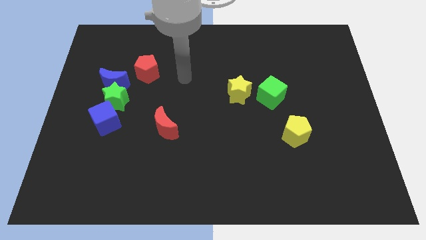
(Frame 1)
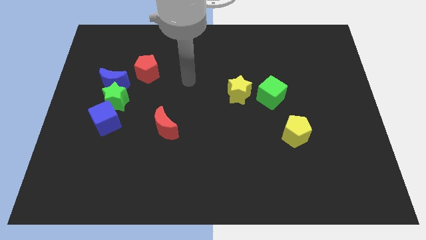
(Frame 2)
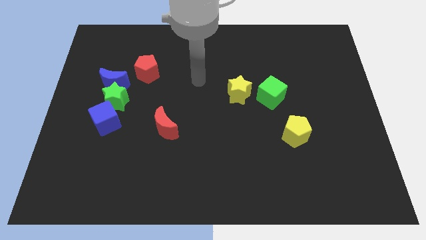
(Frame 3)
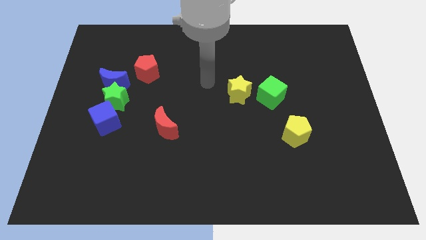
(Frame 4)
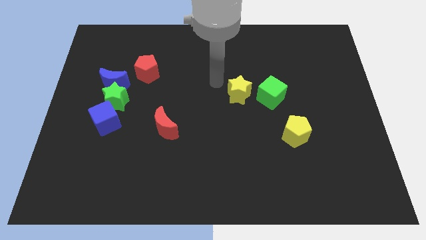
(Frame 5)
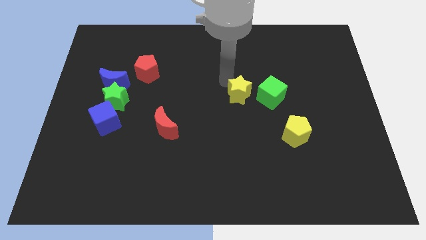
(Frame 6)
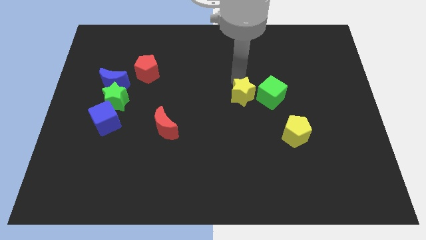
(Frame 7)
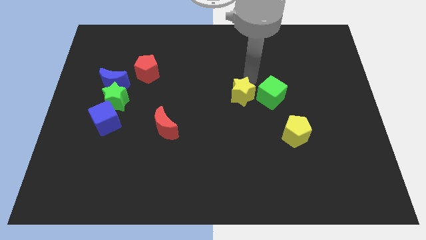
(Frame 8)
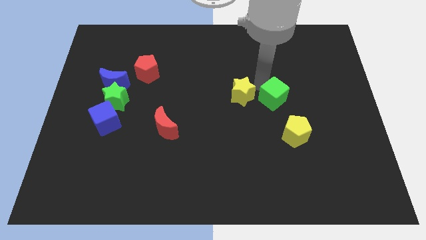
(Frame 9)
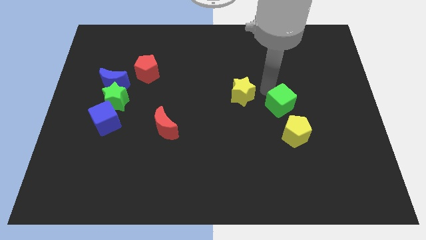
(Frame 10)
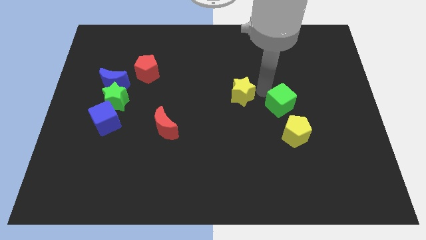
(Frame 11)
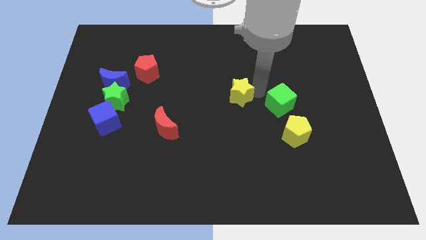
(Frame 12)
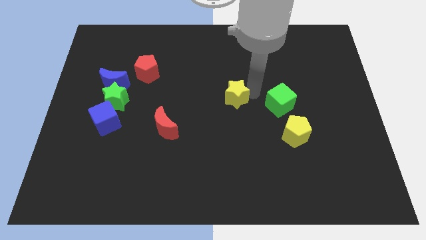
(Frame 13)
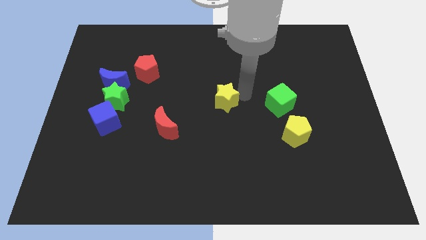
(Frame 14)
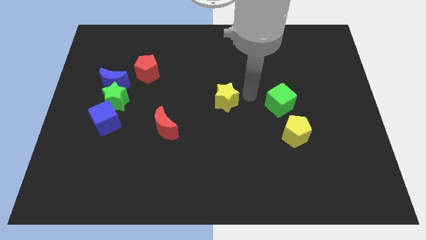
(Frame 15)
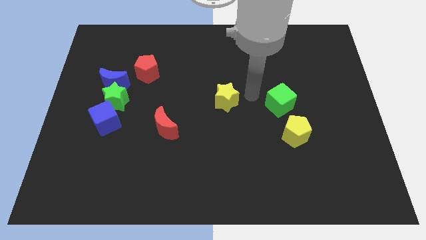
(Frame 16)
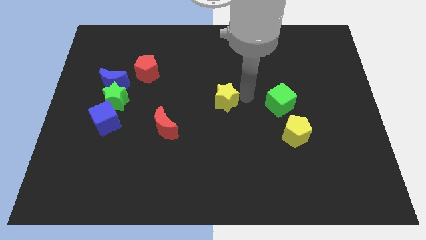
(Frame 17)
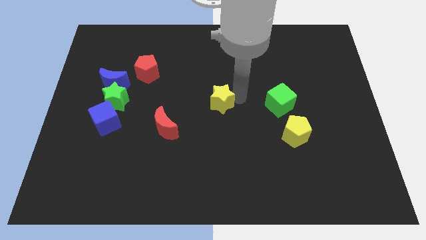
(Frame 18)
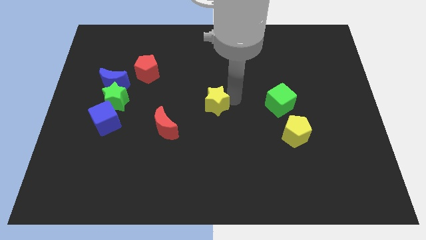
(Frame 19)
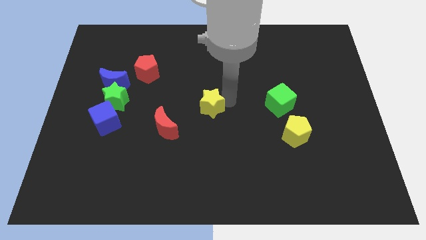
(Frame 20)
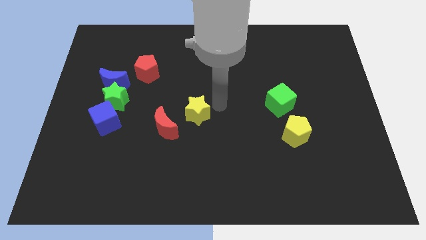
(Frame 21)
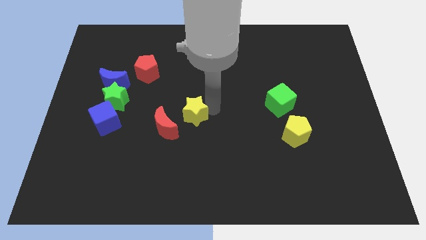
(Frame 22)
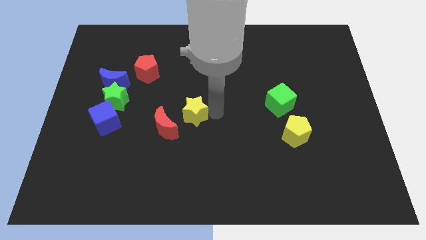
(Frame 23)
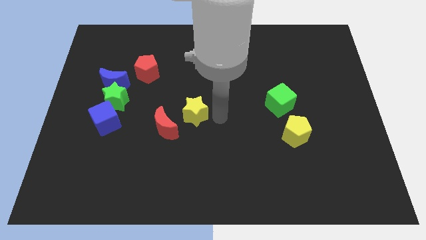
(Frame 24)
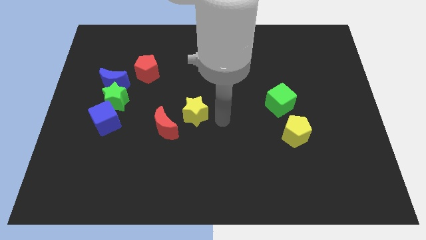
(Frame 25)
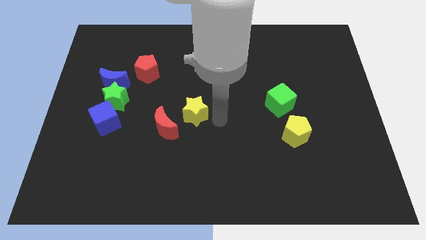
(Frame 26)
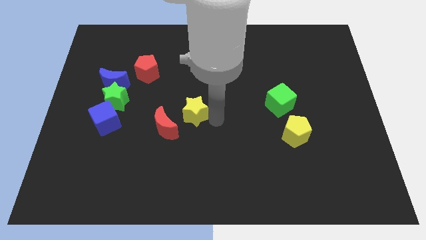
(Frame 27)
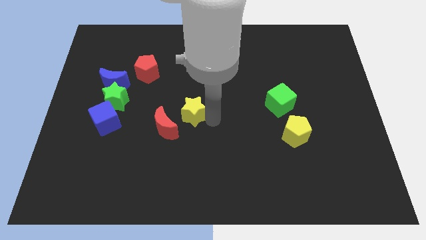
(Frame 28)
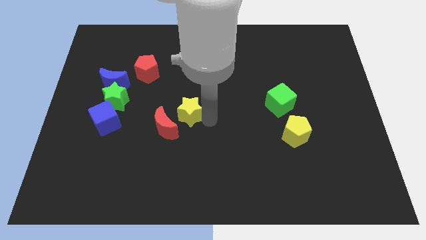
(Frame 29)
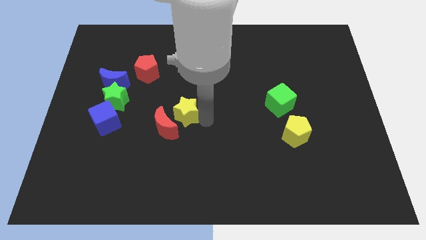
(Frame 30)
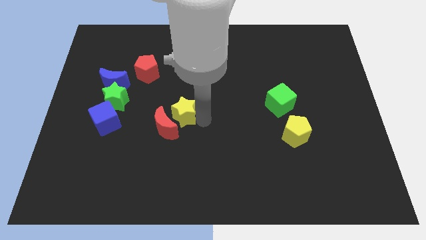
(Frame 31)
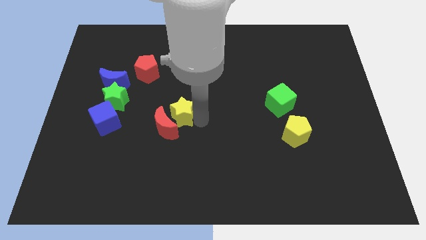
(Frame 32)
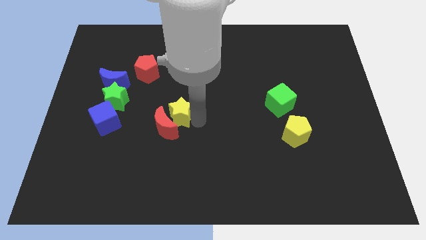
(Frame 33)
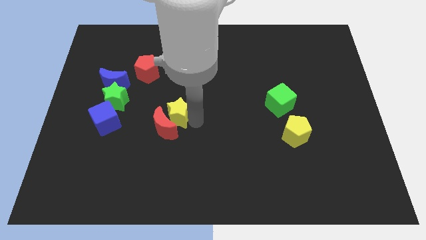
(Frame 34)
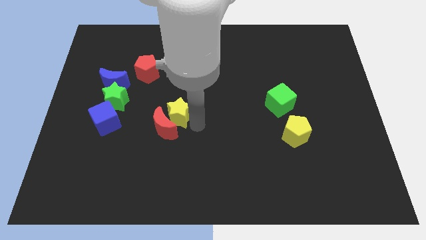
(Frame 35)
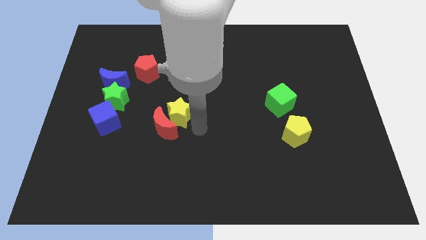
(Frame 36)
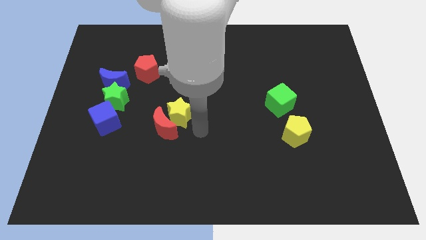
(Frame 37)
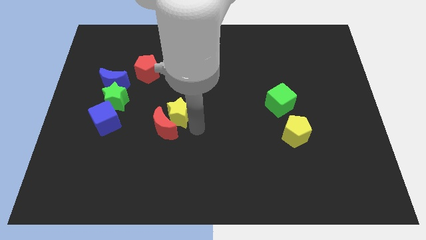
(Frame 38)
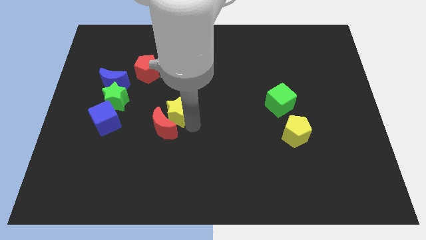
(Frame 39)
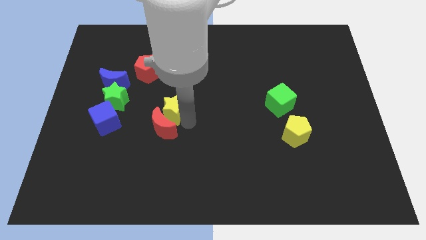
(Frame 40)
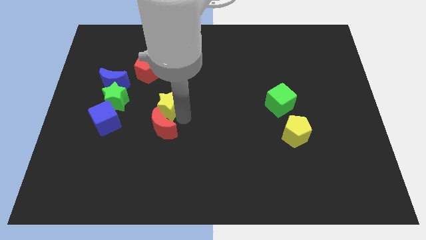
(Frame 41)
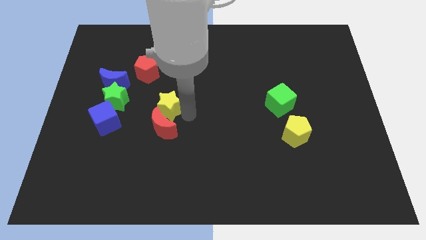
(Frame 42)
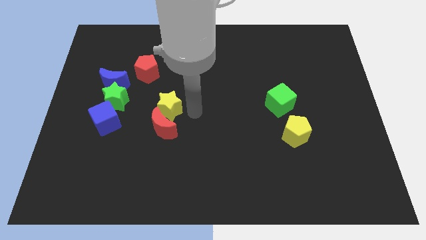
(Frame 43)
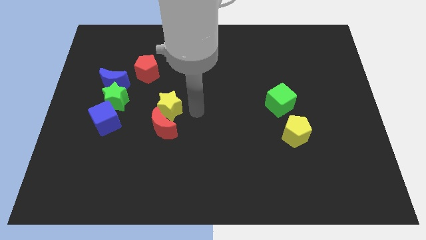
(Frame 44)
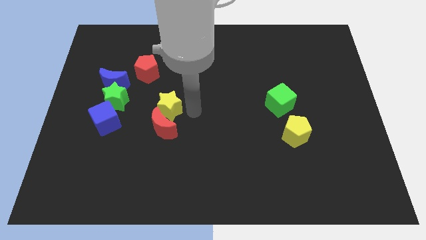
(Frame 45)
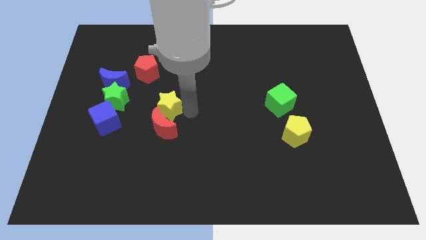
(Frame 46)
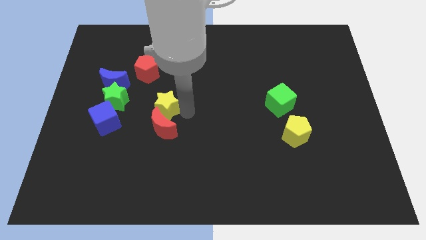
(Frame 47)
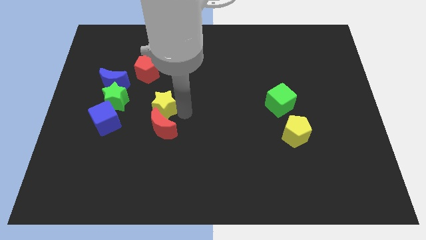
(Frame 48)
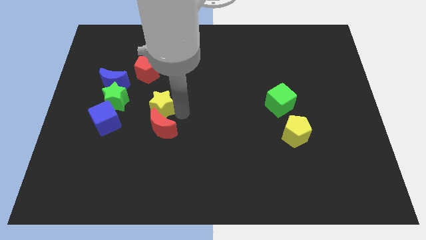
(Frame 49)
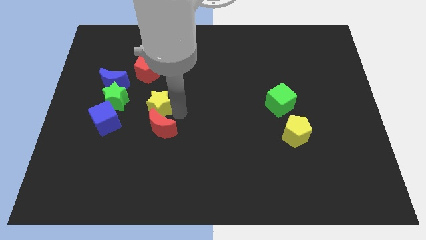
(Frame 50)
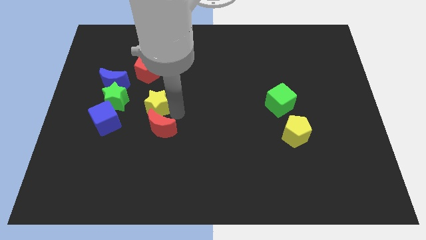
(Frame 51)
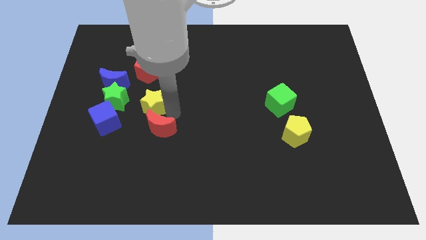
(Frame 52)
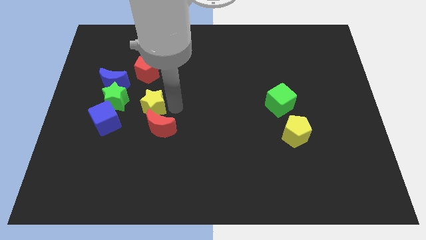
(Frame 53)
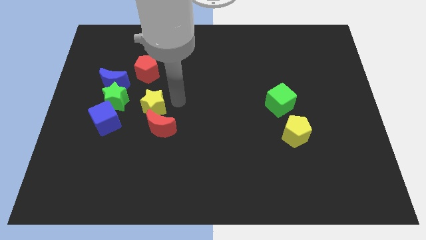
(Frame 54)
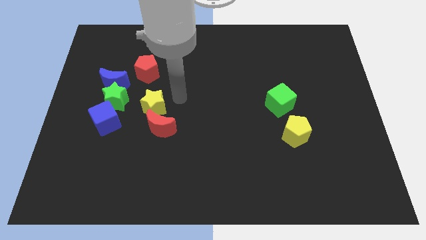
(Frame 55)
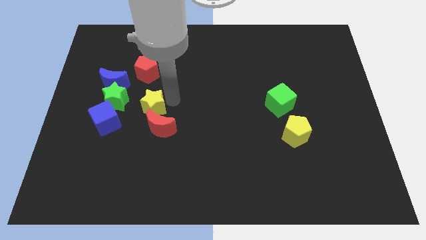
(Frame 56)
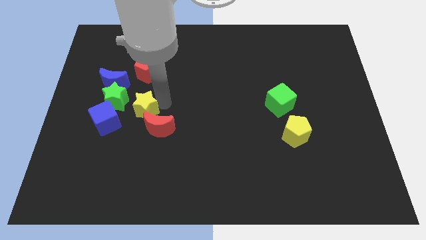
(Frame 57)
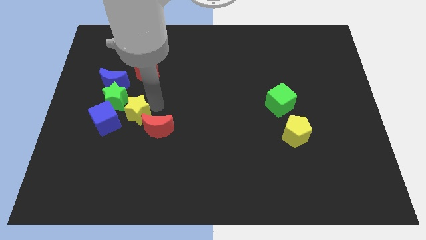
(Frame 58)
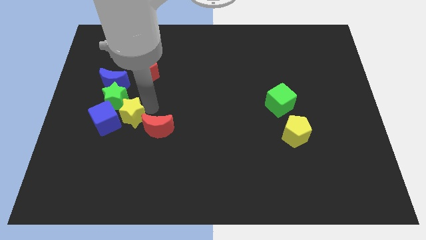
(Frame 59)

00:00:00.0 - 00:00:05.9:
slide the yellow star to the blue cube

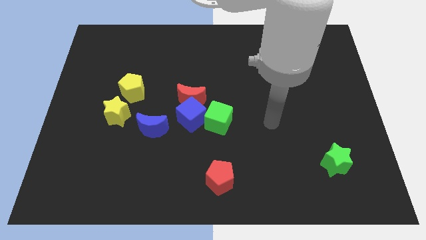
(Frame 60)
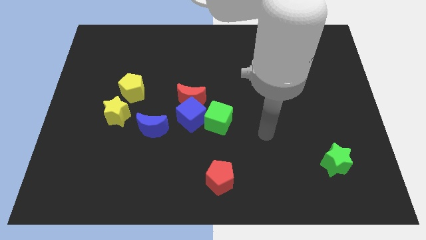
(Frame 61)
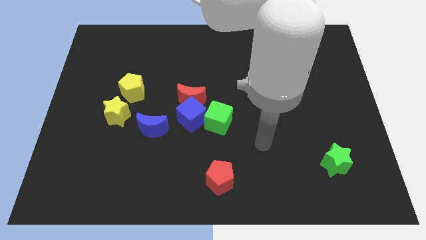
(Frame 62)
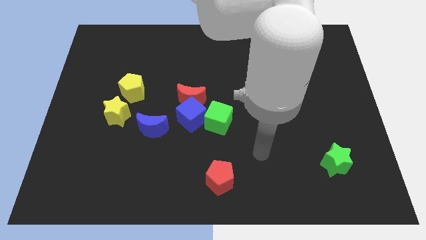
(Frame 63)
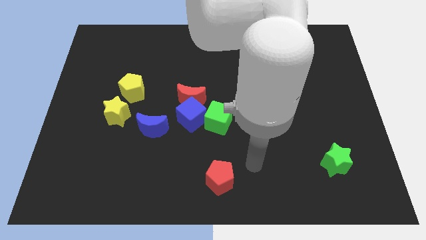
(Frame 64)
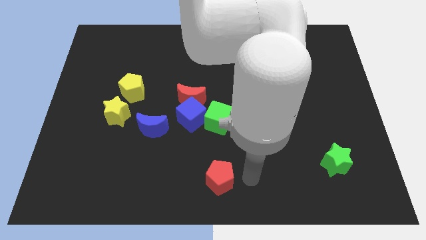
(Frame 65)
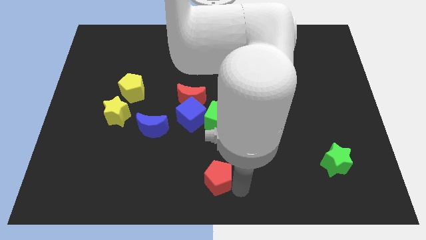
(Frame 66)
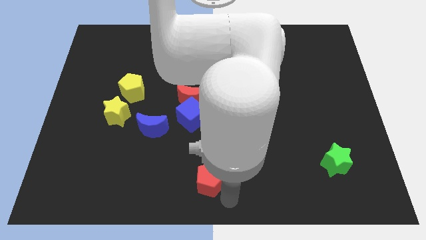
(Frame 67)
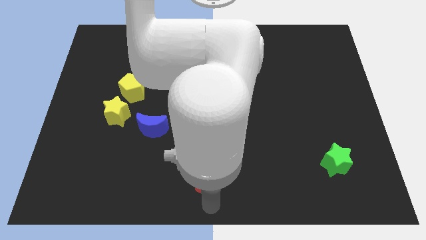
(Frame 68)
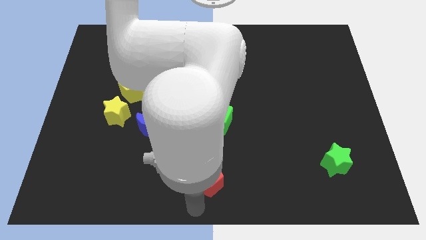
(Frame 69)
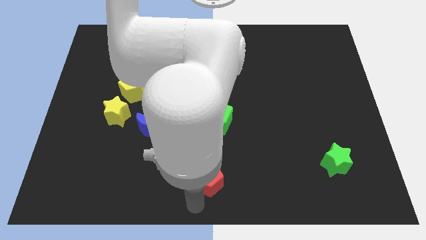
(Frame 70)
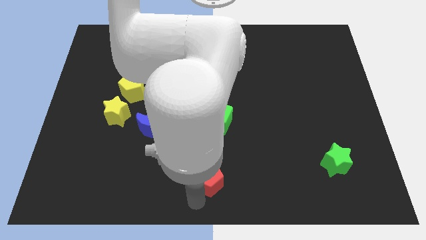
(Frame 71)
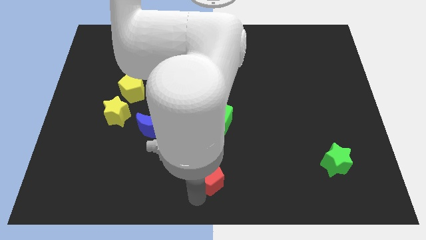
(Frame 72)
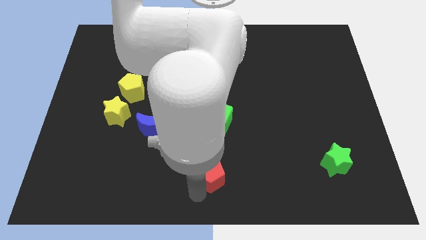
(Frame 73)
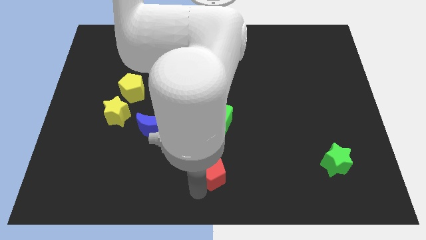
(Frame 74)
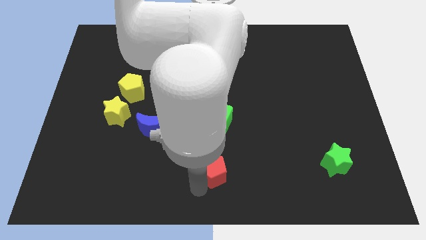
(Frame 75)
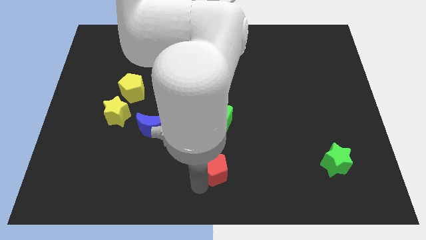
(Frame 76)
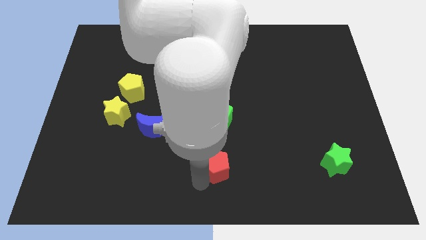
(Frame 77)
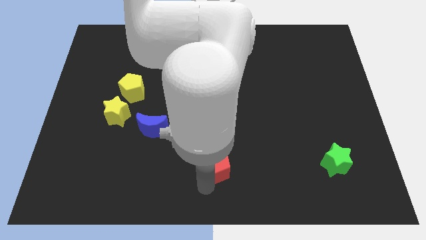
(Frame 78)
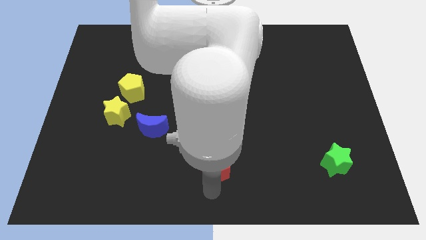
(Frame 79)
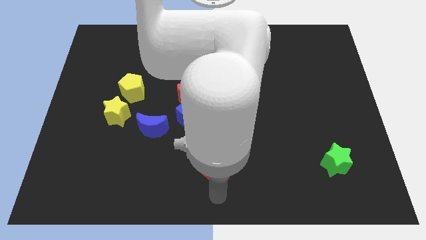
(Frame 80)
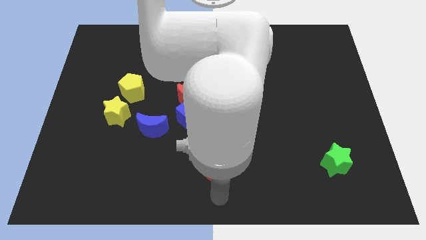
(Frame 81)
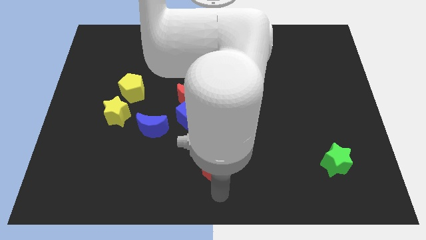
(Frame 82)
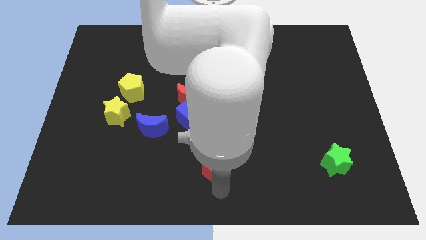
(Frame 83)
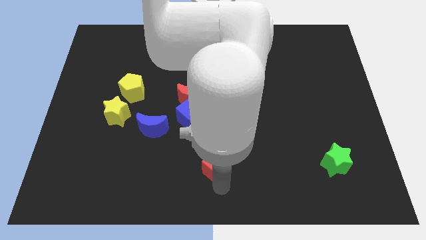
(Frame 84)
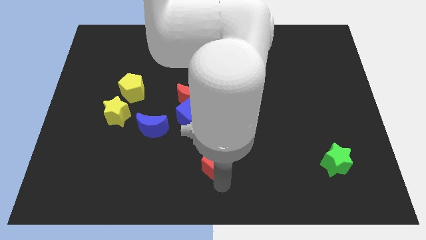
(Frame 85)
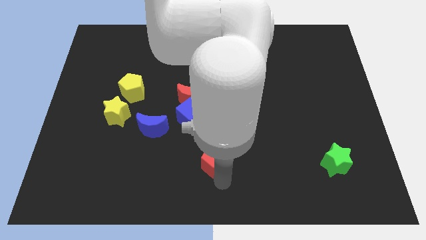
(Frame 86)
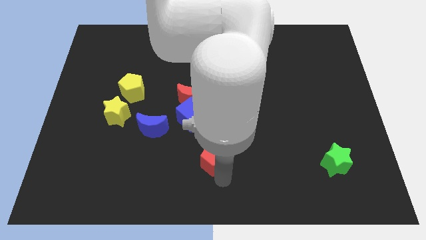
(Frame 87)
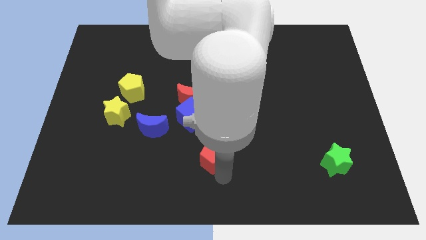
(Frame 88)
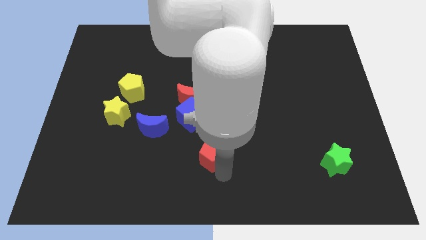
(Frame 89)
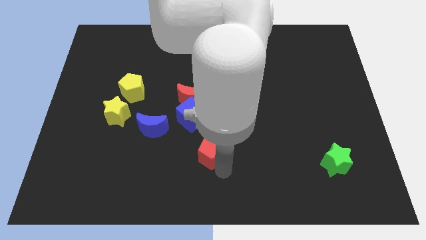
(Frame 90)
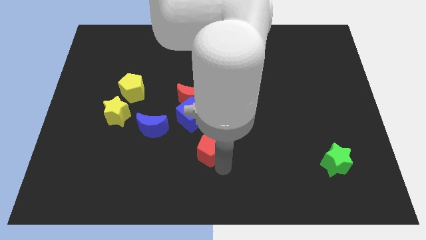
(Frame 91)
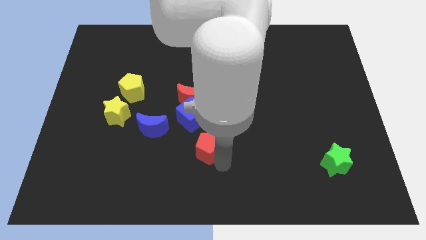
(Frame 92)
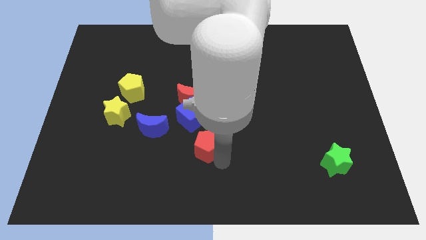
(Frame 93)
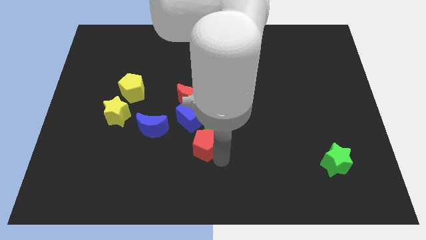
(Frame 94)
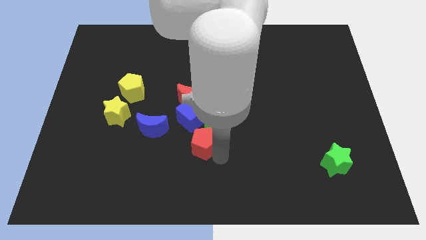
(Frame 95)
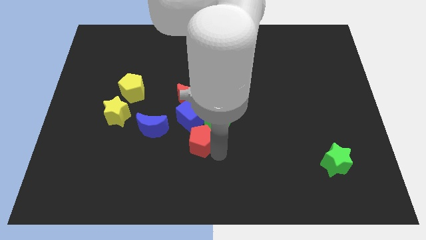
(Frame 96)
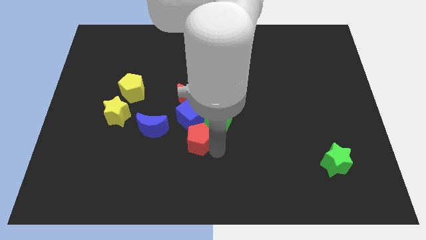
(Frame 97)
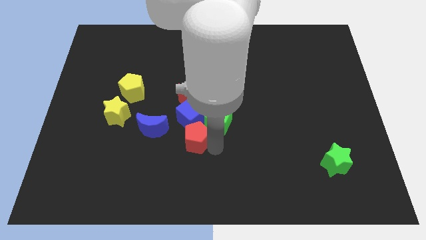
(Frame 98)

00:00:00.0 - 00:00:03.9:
move the red pentagon close to the blue cube
